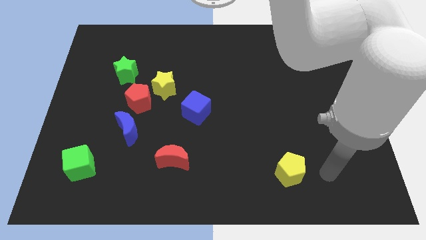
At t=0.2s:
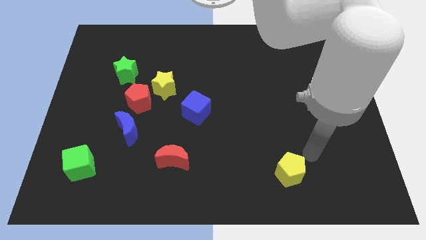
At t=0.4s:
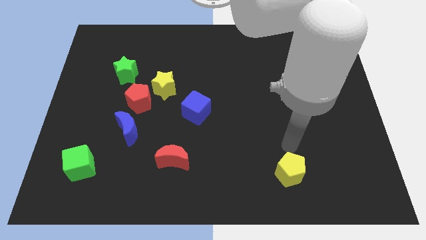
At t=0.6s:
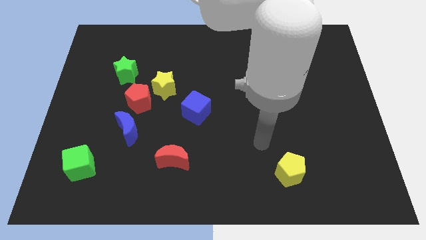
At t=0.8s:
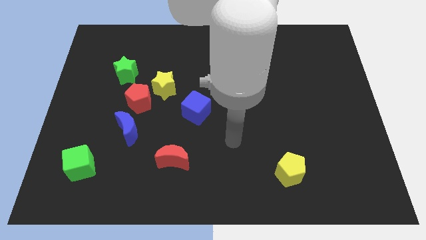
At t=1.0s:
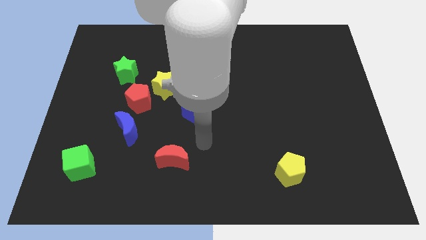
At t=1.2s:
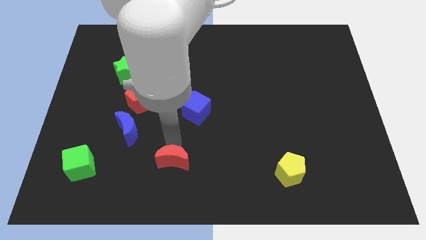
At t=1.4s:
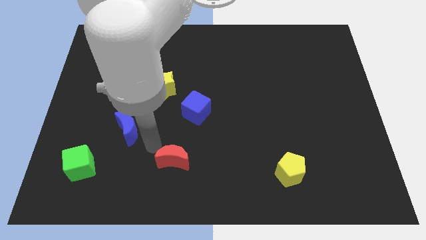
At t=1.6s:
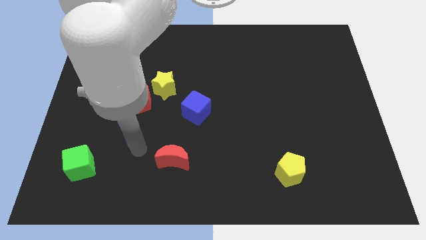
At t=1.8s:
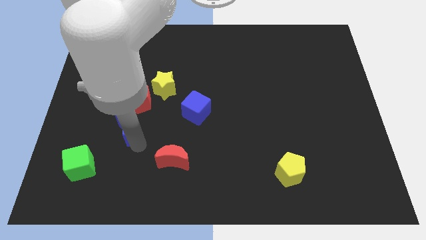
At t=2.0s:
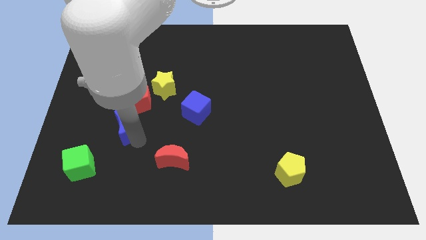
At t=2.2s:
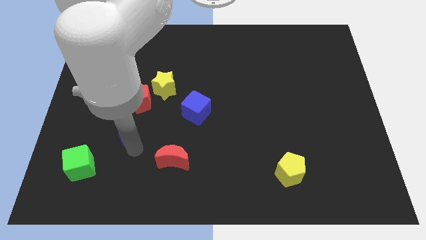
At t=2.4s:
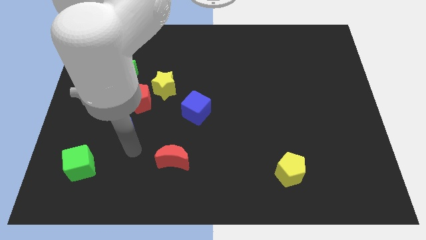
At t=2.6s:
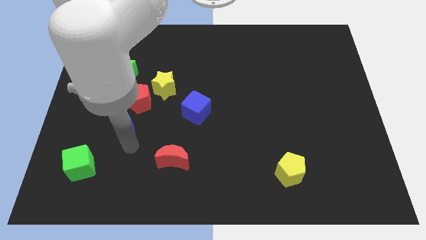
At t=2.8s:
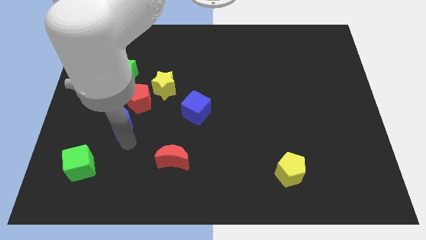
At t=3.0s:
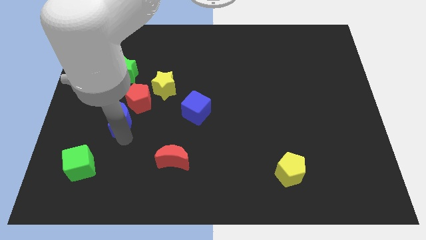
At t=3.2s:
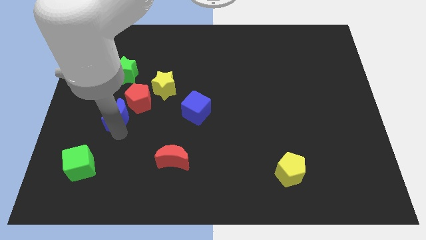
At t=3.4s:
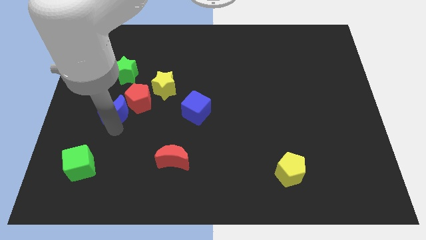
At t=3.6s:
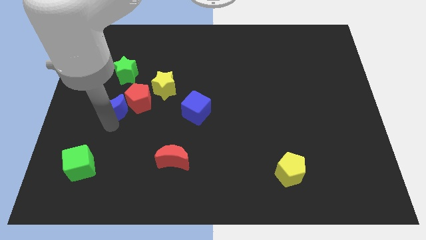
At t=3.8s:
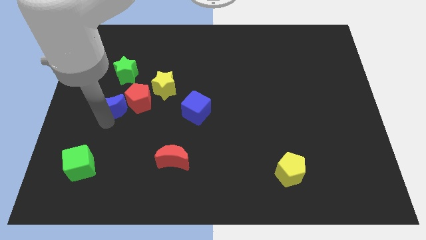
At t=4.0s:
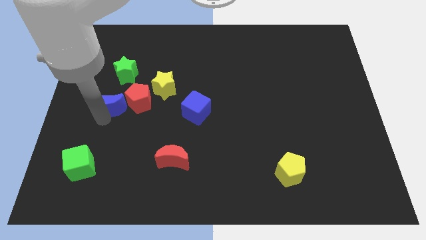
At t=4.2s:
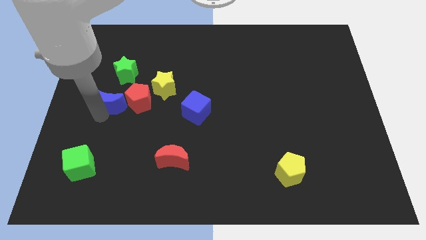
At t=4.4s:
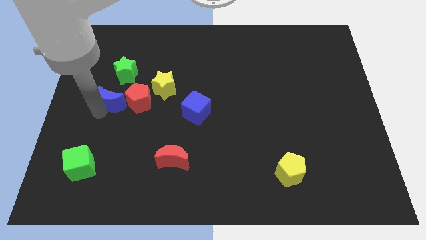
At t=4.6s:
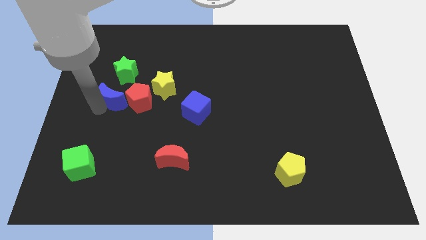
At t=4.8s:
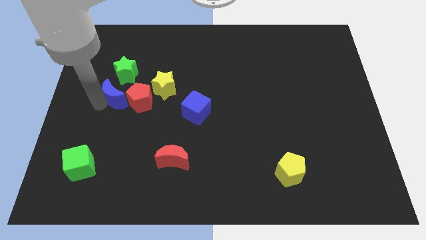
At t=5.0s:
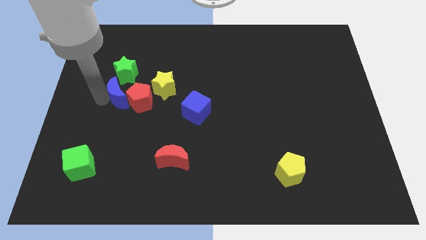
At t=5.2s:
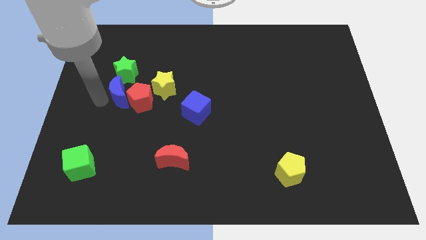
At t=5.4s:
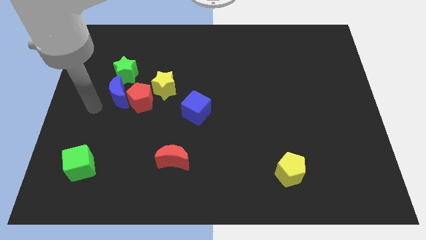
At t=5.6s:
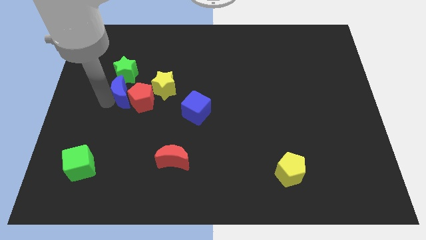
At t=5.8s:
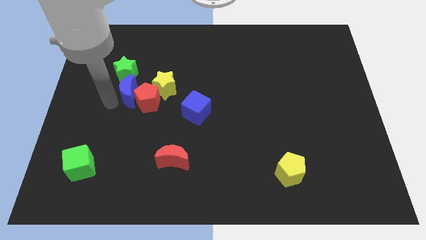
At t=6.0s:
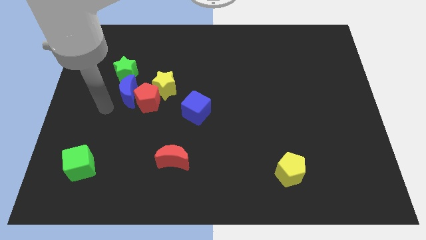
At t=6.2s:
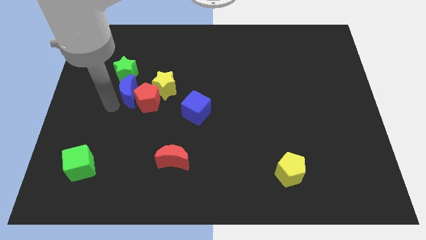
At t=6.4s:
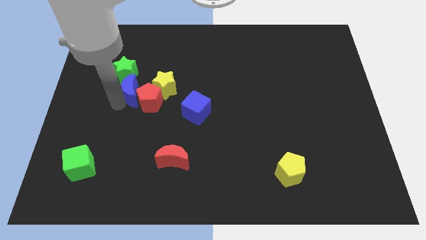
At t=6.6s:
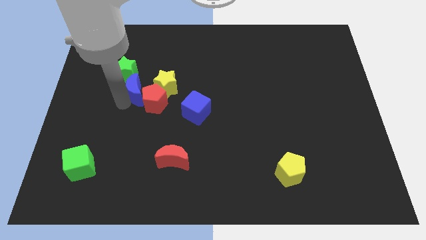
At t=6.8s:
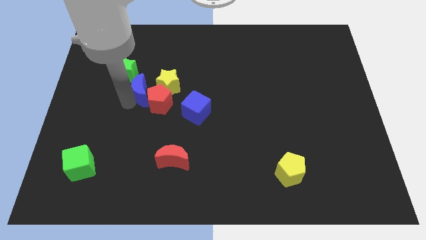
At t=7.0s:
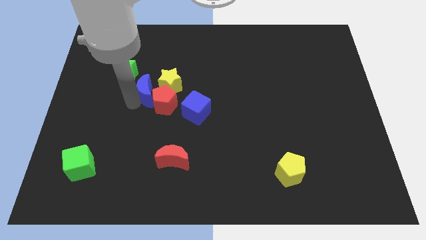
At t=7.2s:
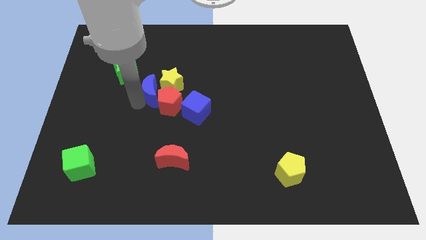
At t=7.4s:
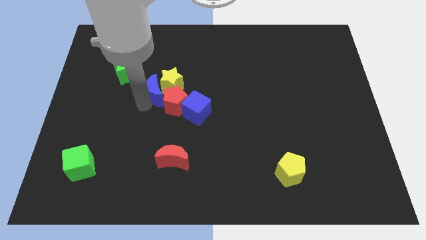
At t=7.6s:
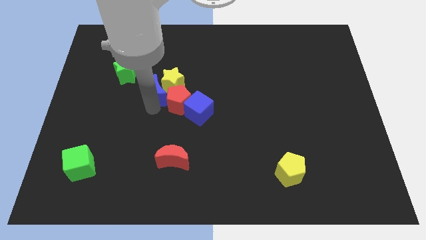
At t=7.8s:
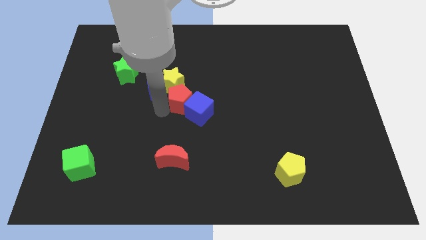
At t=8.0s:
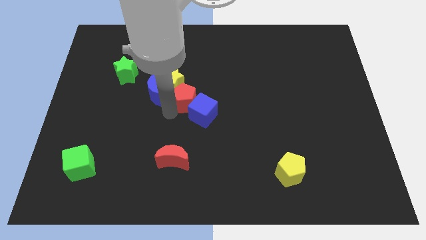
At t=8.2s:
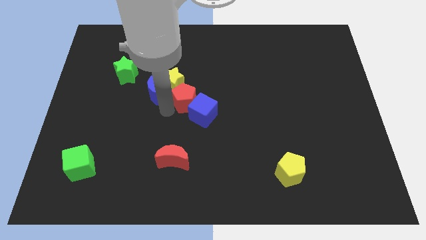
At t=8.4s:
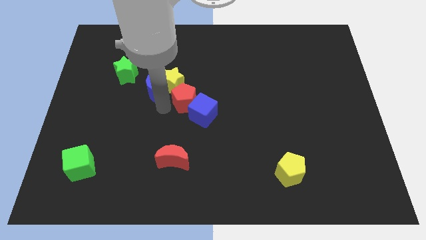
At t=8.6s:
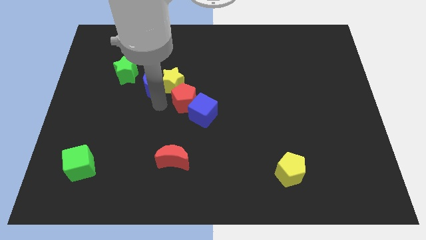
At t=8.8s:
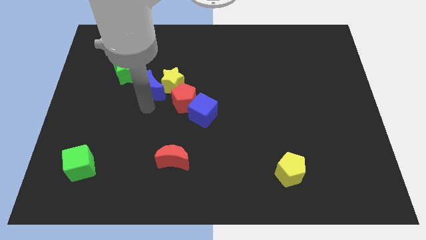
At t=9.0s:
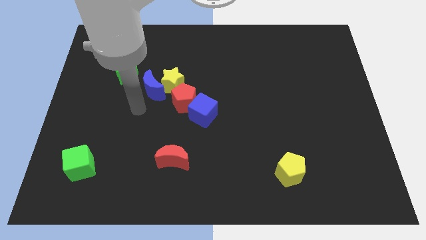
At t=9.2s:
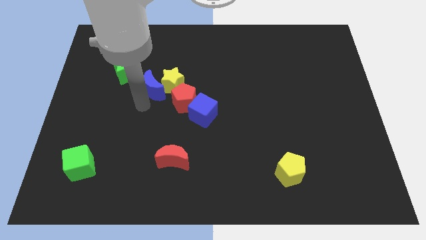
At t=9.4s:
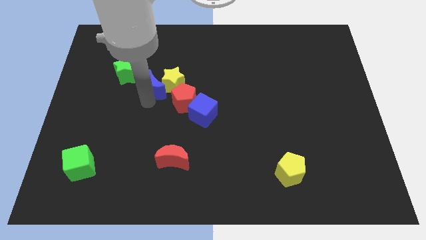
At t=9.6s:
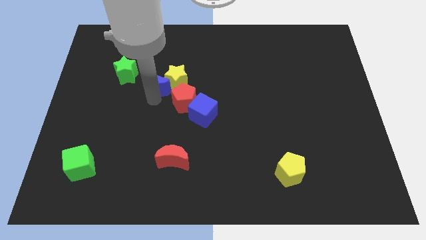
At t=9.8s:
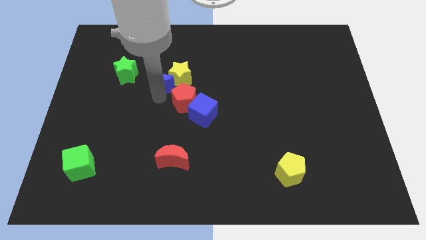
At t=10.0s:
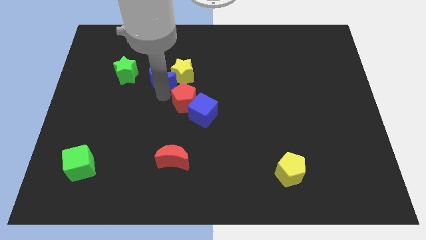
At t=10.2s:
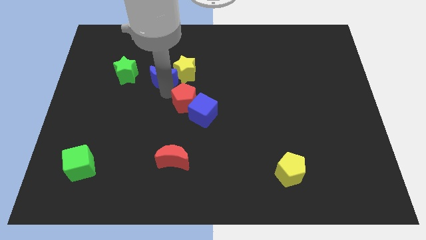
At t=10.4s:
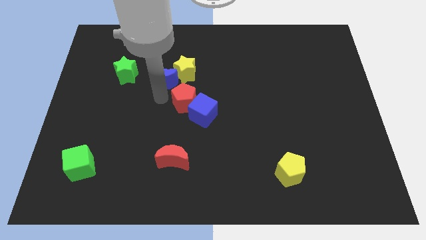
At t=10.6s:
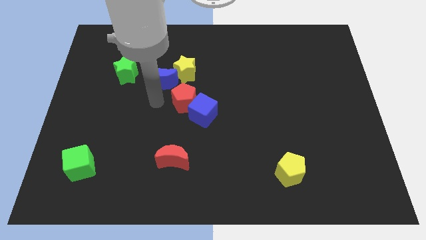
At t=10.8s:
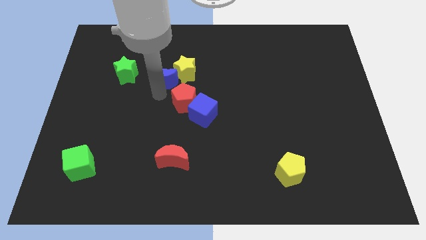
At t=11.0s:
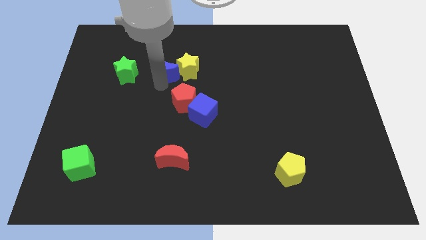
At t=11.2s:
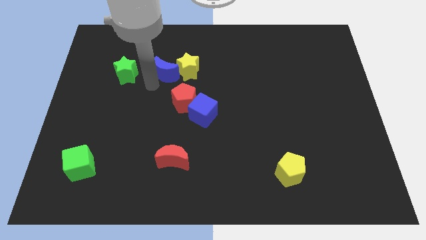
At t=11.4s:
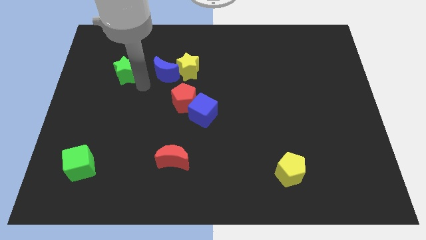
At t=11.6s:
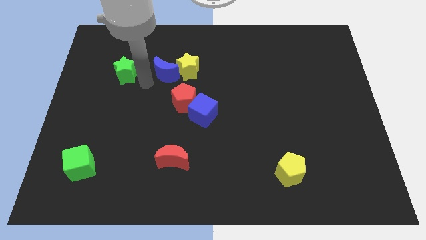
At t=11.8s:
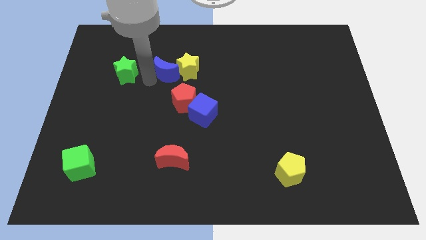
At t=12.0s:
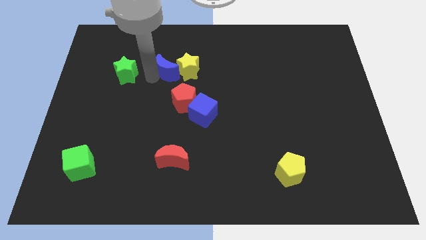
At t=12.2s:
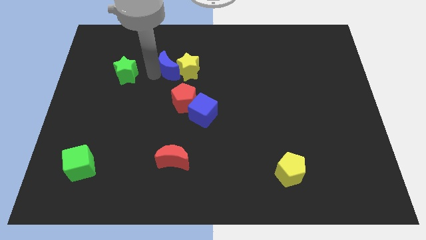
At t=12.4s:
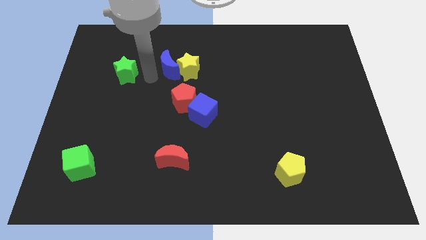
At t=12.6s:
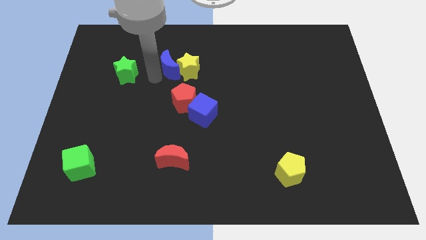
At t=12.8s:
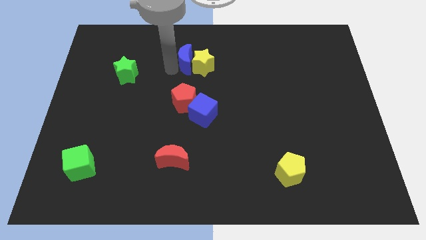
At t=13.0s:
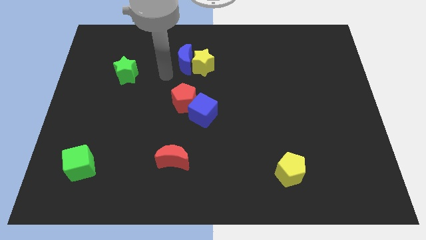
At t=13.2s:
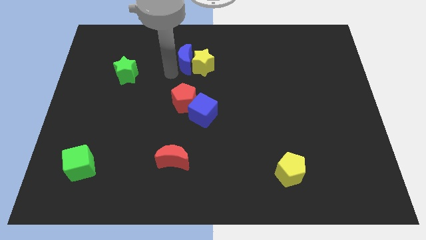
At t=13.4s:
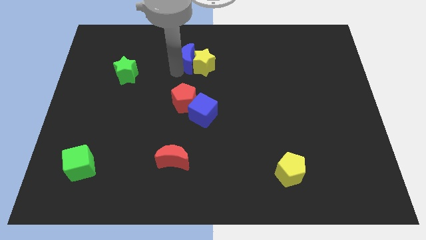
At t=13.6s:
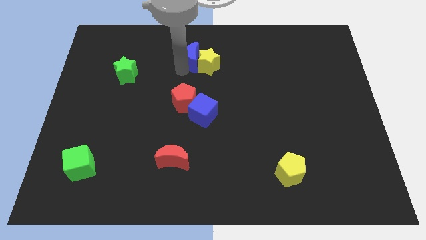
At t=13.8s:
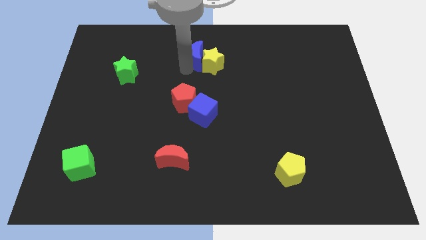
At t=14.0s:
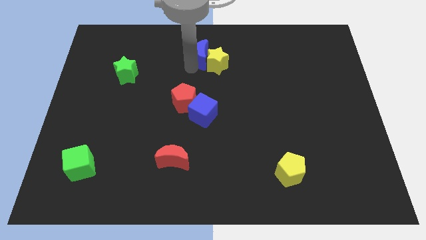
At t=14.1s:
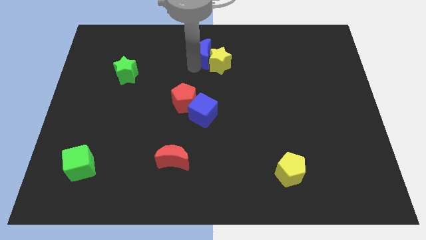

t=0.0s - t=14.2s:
push the blue moon to the top
